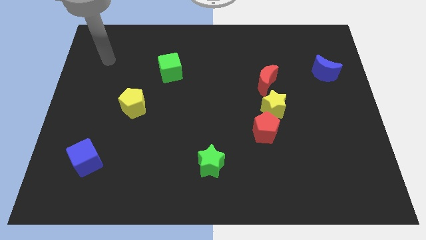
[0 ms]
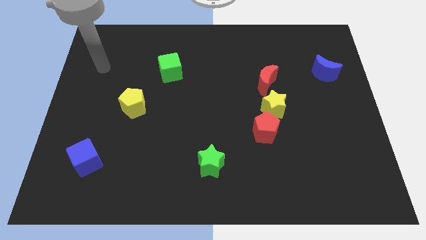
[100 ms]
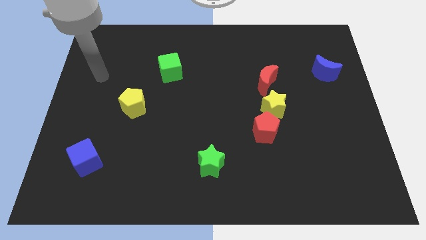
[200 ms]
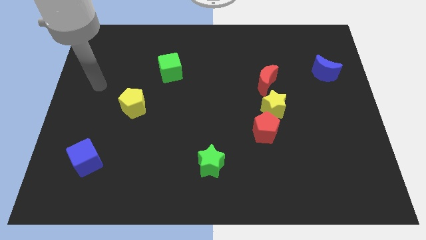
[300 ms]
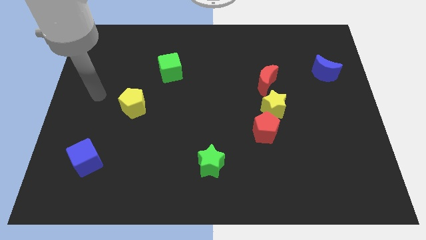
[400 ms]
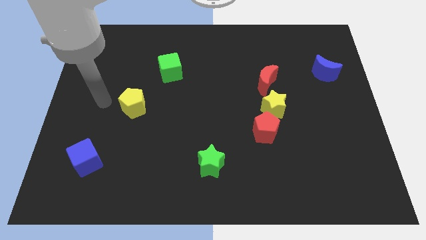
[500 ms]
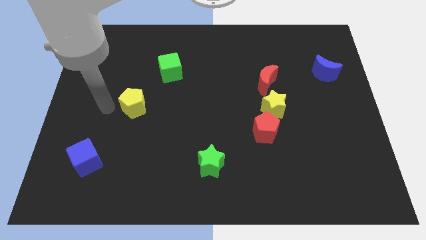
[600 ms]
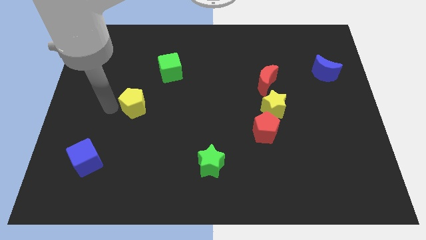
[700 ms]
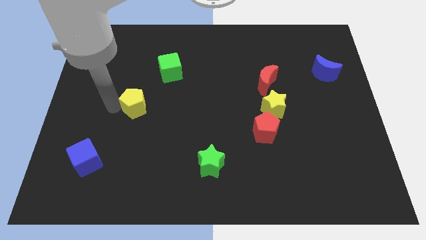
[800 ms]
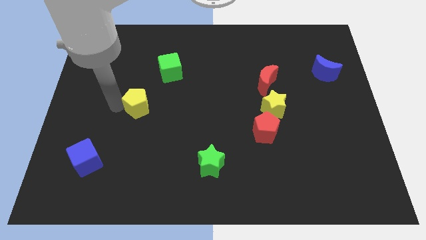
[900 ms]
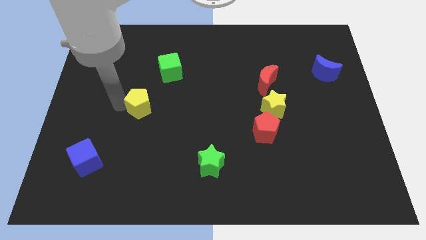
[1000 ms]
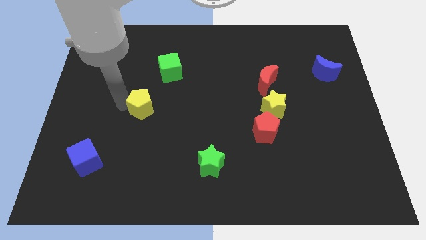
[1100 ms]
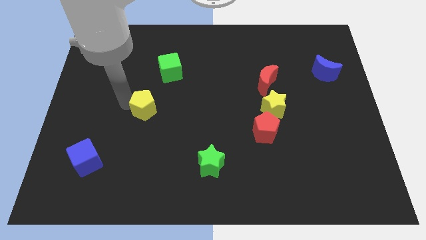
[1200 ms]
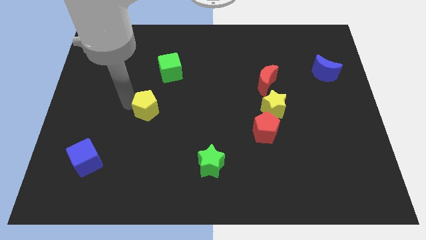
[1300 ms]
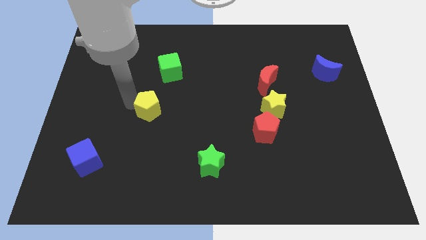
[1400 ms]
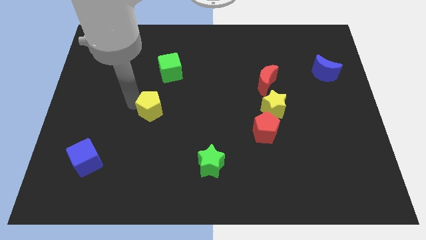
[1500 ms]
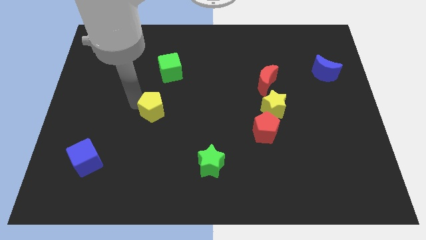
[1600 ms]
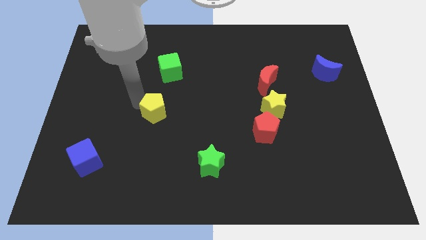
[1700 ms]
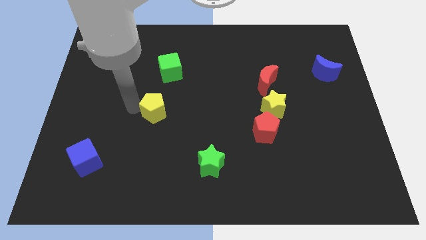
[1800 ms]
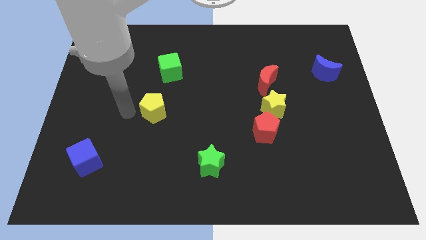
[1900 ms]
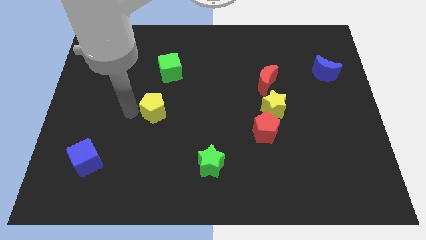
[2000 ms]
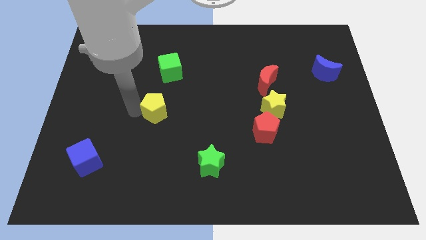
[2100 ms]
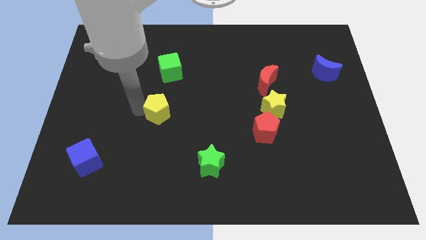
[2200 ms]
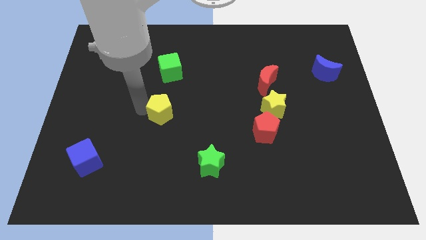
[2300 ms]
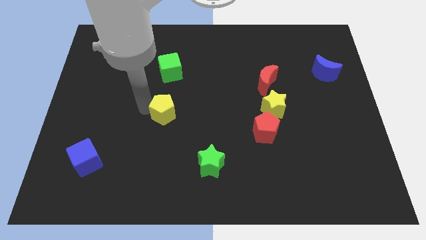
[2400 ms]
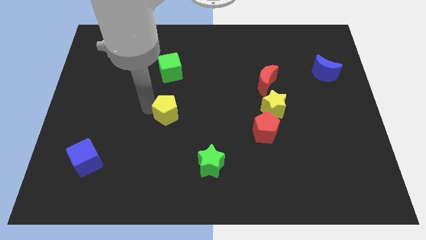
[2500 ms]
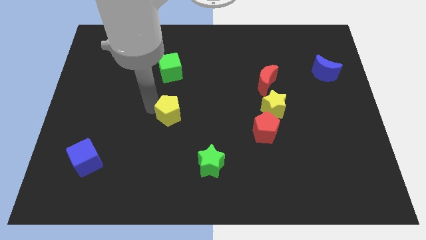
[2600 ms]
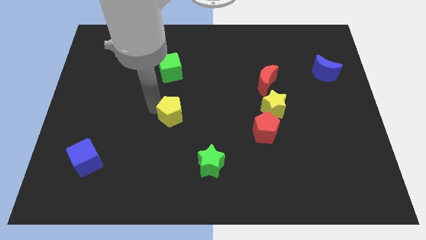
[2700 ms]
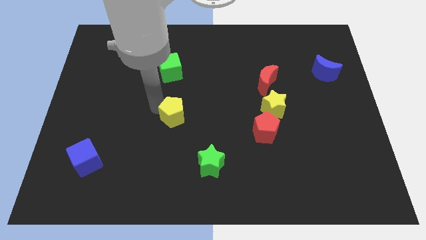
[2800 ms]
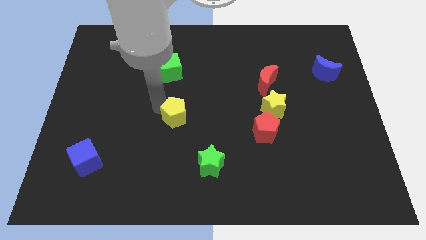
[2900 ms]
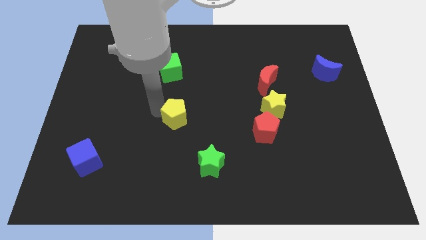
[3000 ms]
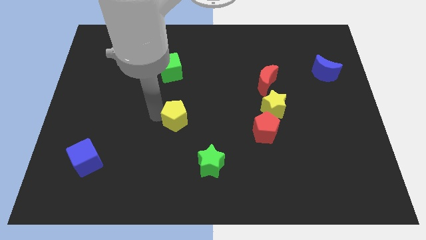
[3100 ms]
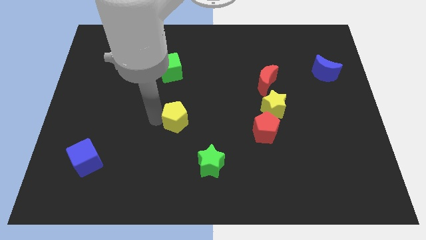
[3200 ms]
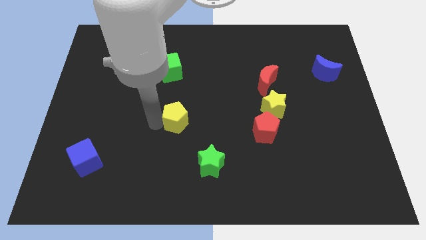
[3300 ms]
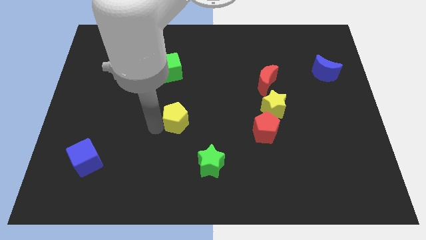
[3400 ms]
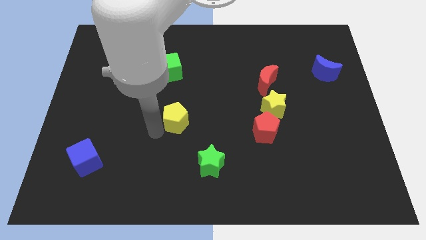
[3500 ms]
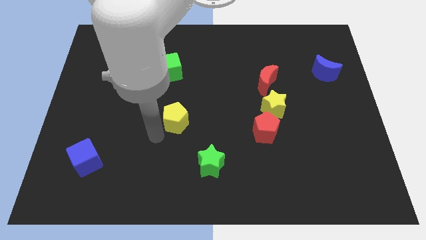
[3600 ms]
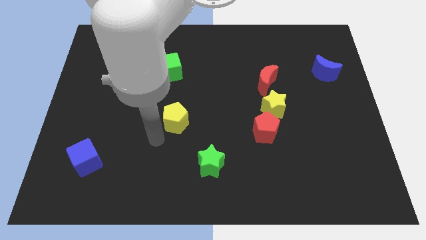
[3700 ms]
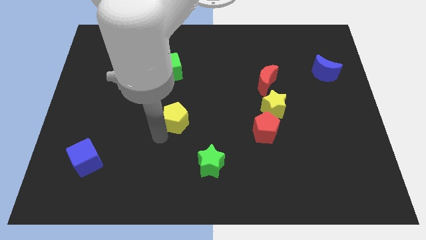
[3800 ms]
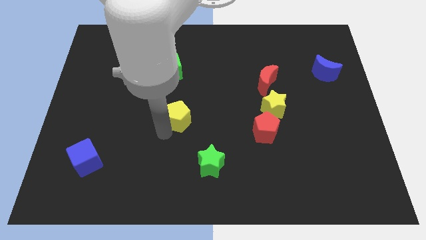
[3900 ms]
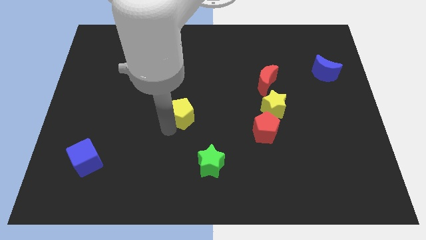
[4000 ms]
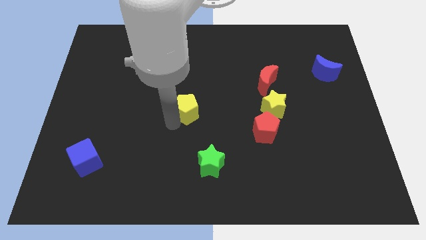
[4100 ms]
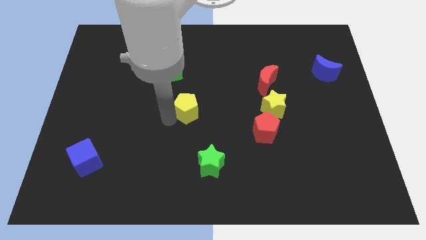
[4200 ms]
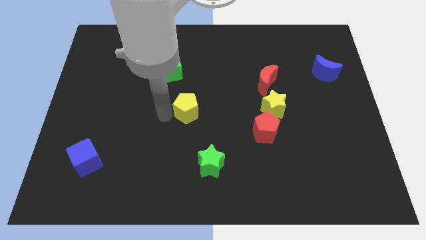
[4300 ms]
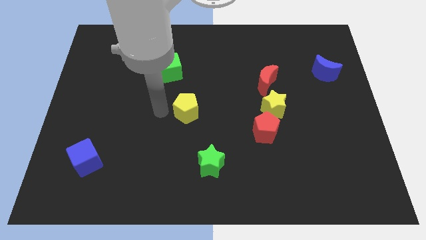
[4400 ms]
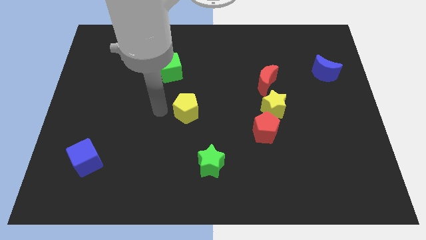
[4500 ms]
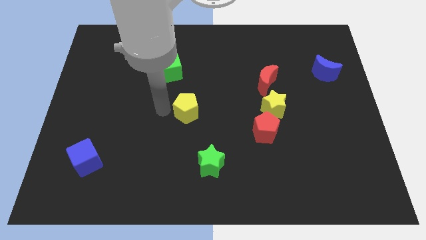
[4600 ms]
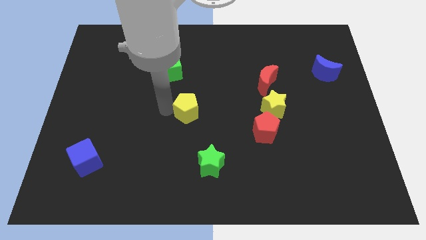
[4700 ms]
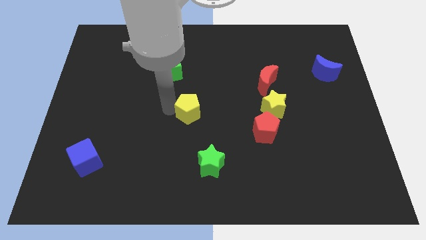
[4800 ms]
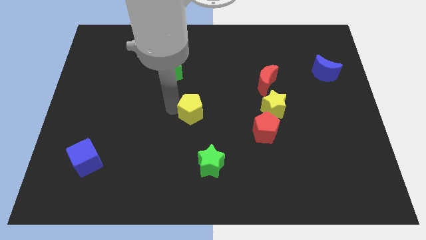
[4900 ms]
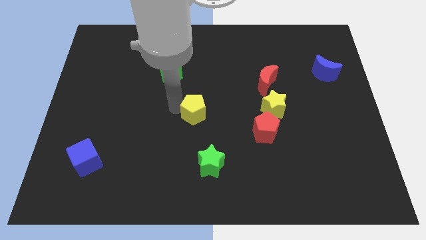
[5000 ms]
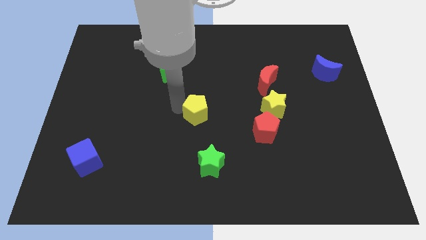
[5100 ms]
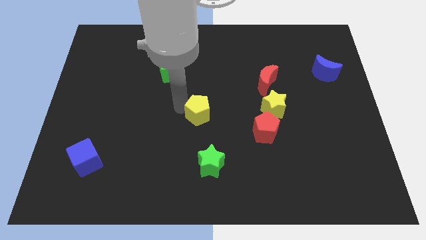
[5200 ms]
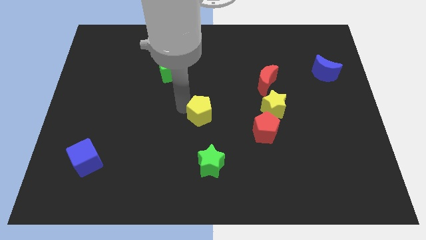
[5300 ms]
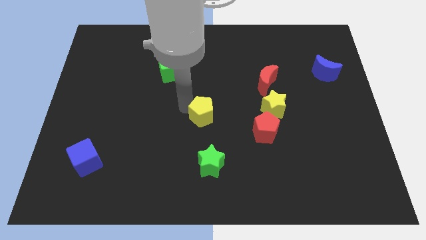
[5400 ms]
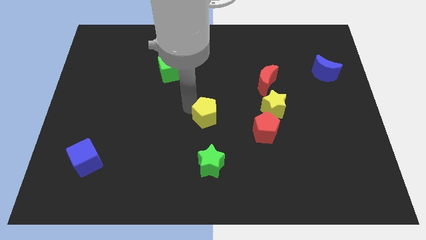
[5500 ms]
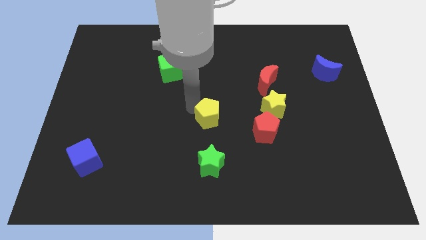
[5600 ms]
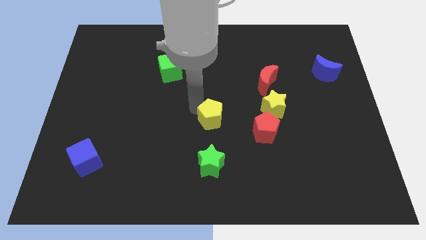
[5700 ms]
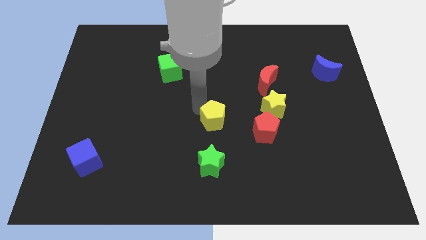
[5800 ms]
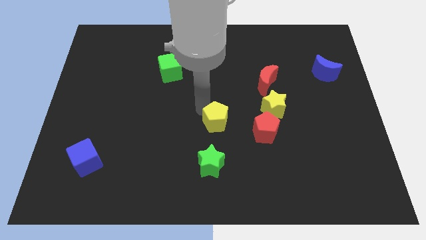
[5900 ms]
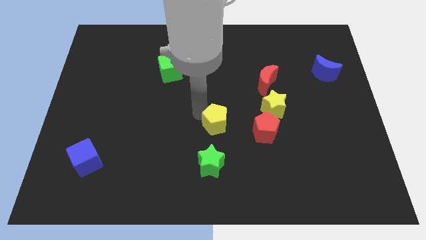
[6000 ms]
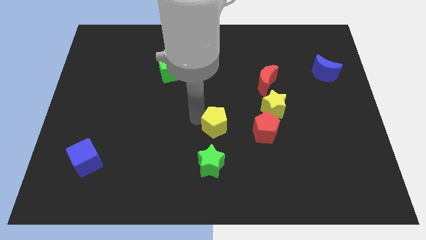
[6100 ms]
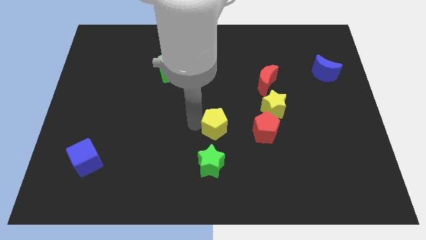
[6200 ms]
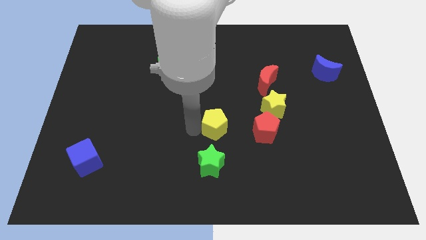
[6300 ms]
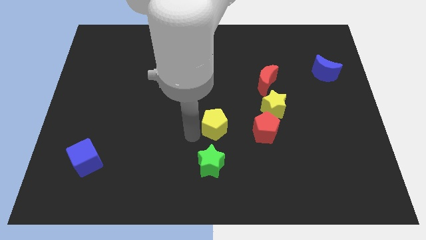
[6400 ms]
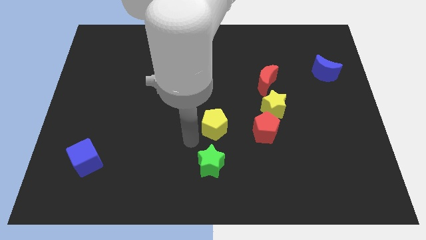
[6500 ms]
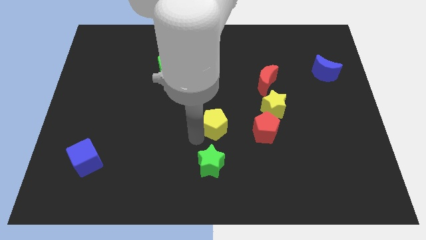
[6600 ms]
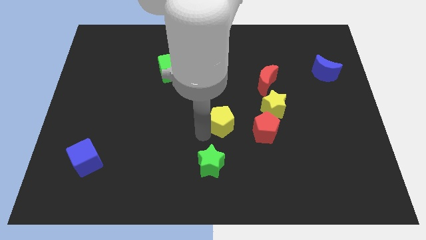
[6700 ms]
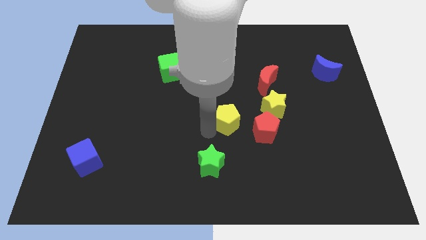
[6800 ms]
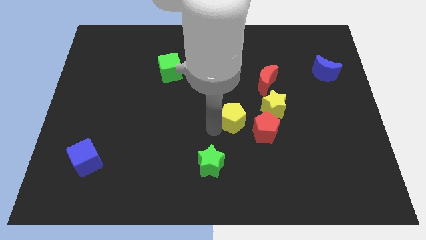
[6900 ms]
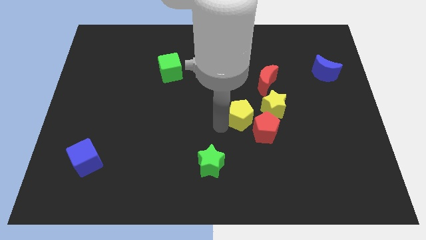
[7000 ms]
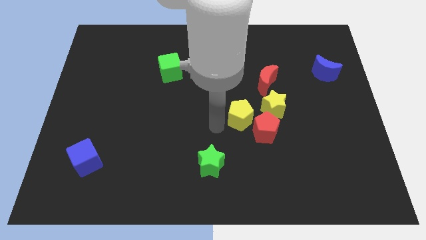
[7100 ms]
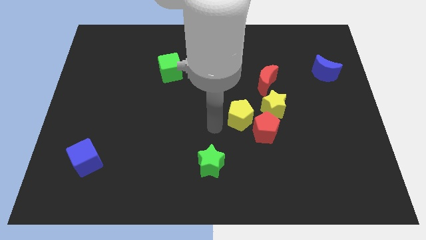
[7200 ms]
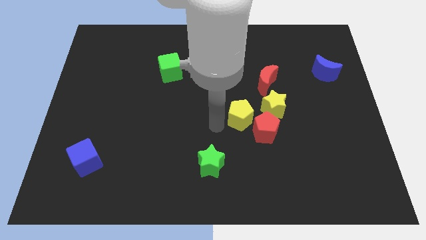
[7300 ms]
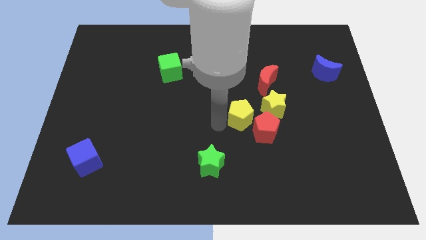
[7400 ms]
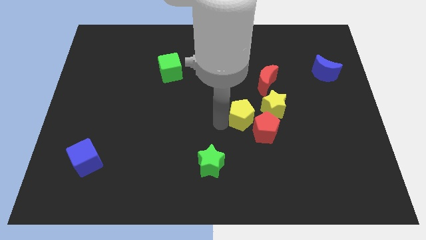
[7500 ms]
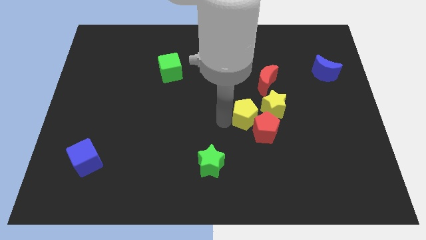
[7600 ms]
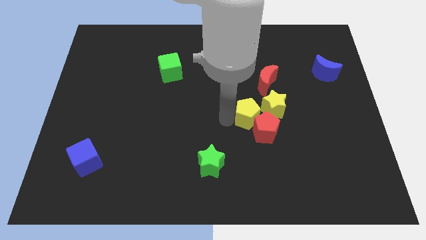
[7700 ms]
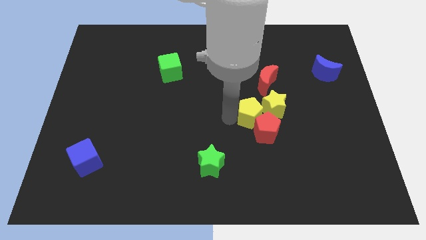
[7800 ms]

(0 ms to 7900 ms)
move the yellow pentagon towards the yellow star
